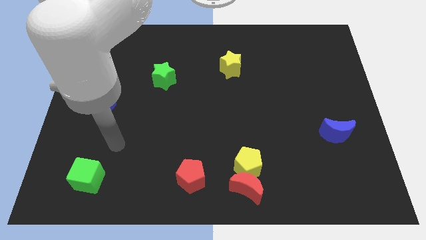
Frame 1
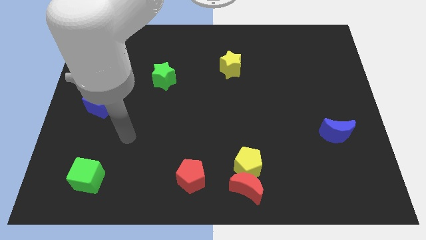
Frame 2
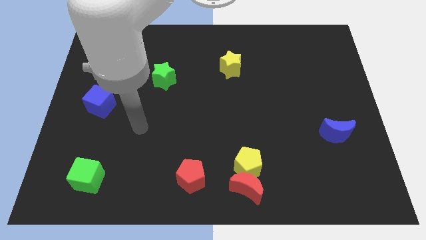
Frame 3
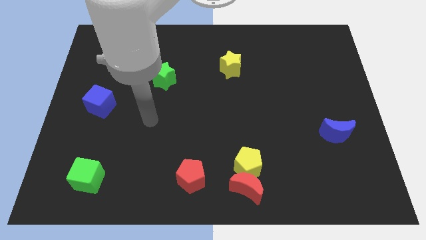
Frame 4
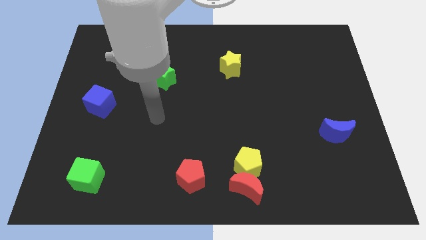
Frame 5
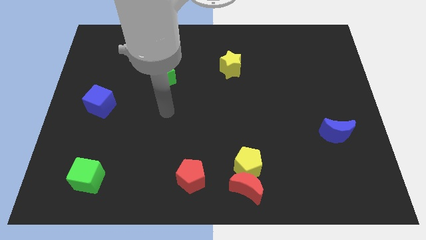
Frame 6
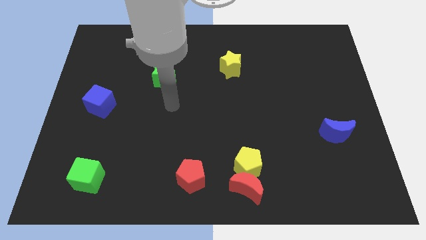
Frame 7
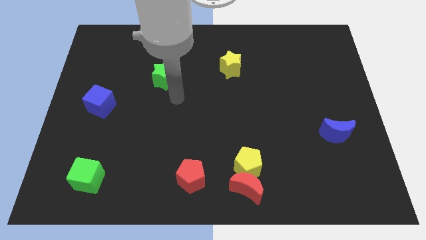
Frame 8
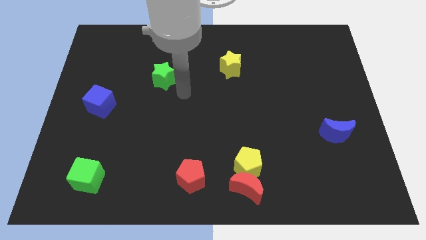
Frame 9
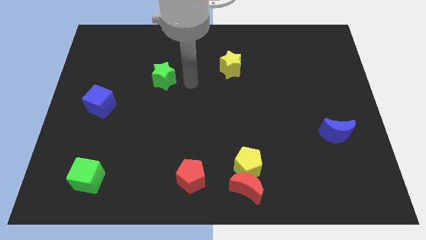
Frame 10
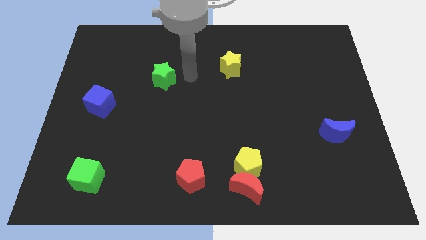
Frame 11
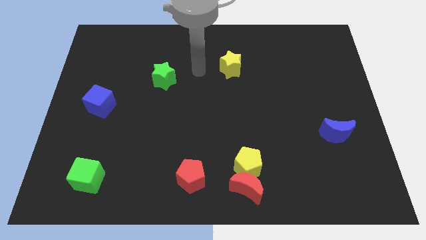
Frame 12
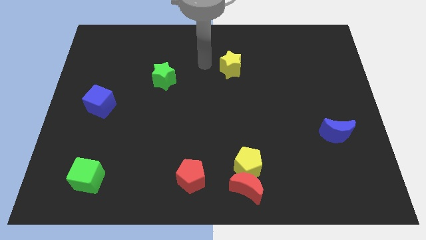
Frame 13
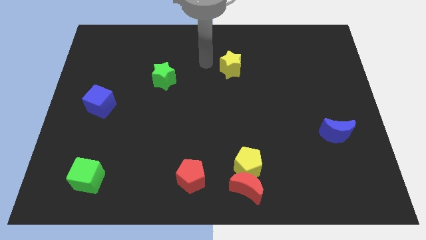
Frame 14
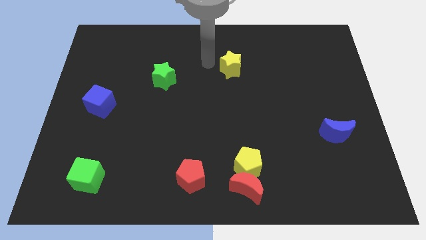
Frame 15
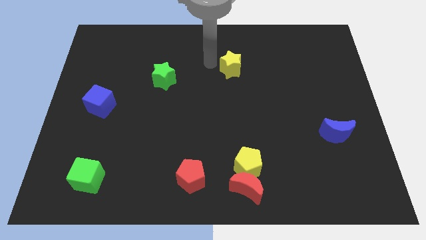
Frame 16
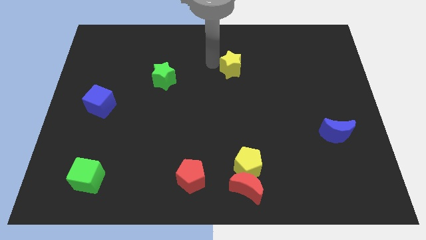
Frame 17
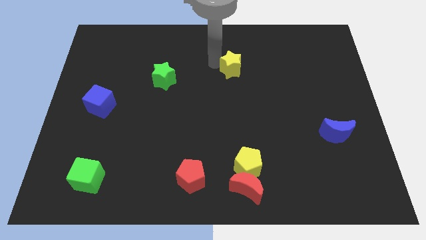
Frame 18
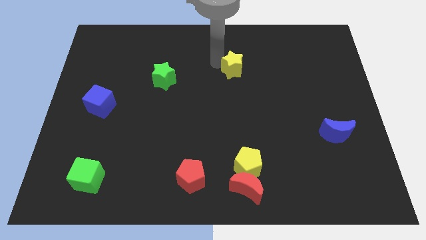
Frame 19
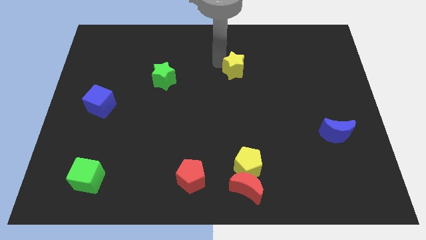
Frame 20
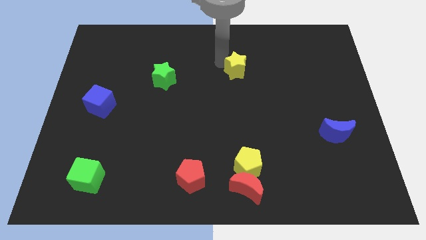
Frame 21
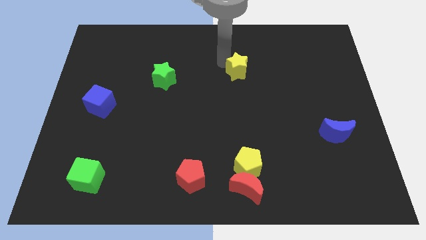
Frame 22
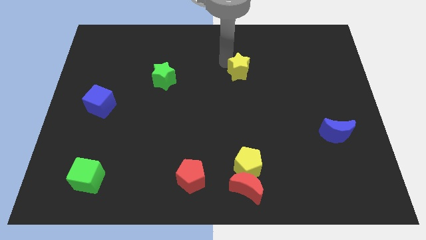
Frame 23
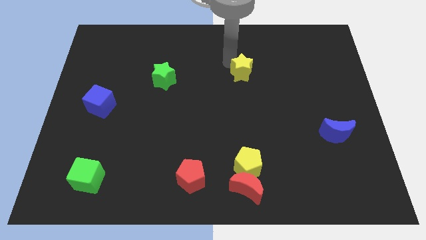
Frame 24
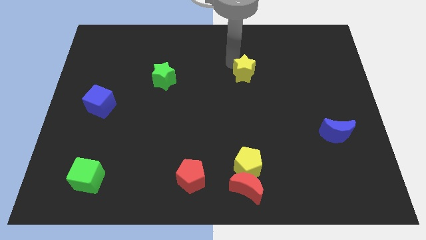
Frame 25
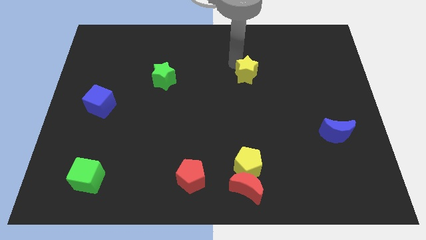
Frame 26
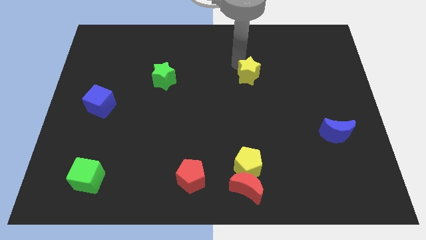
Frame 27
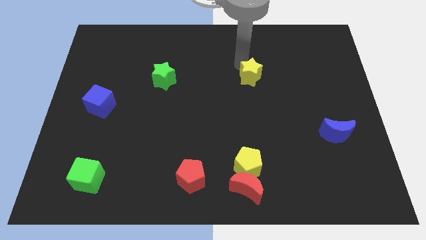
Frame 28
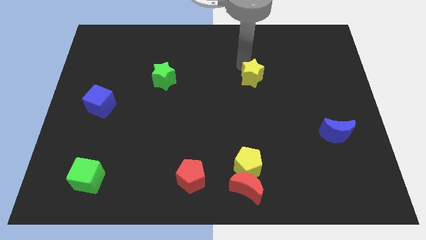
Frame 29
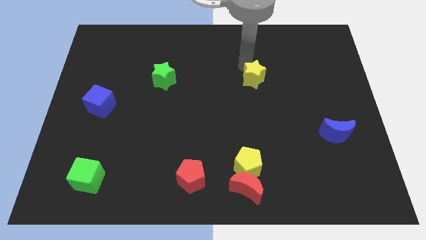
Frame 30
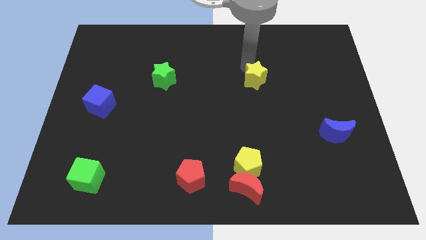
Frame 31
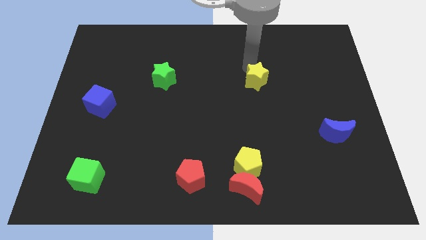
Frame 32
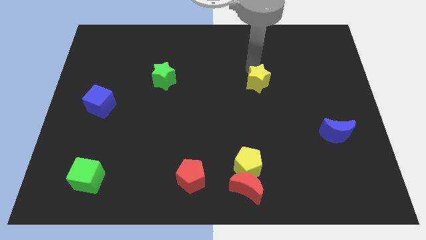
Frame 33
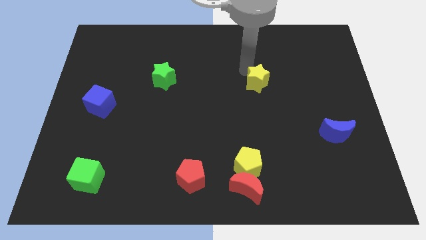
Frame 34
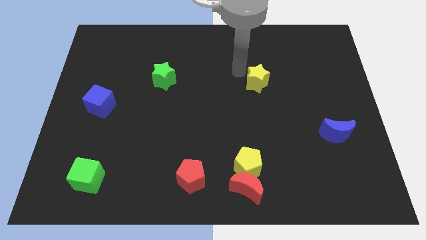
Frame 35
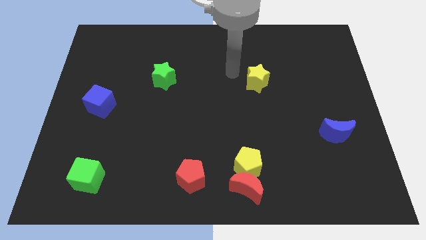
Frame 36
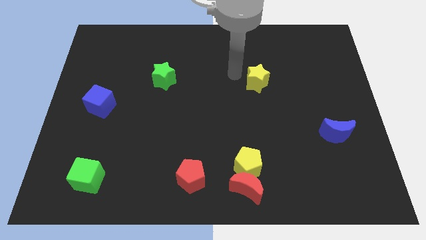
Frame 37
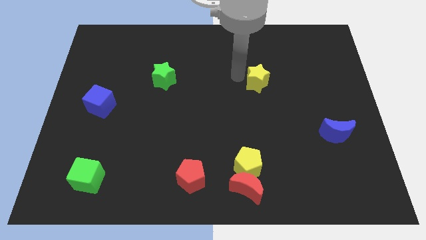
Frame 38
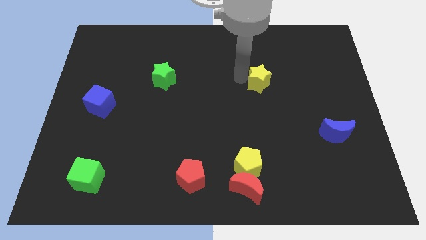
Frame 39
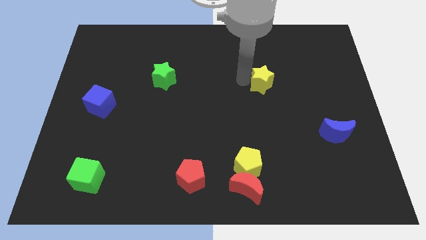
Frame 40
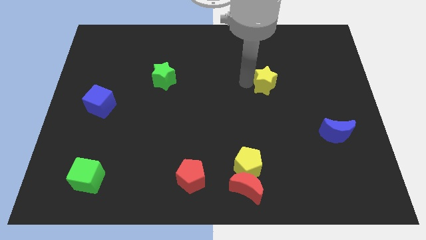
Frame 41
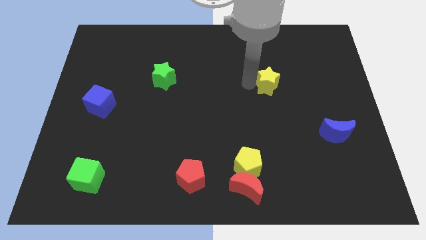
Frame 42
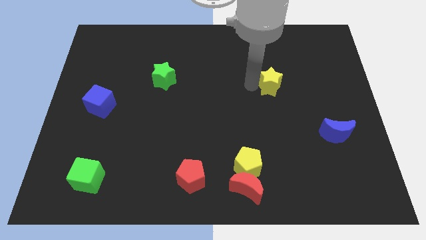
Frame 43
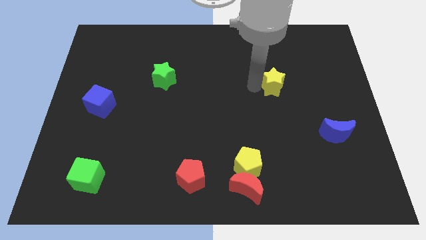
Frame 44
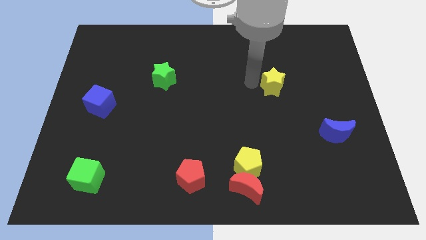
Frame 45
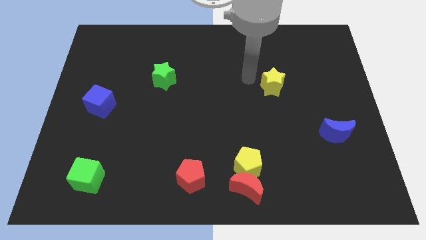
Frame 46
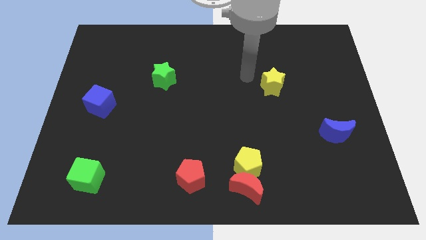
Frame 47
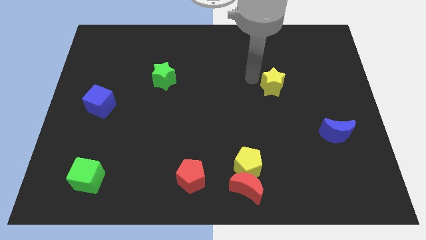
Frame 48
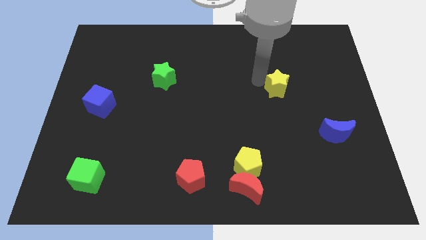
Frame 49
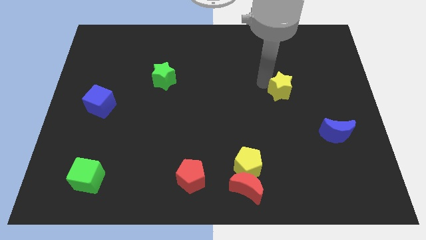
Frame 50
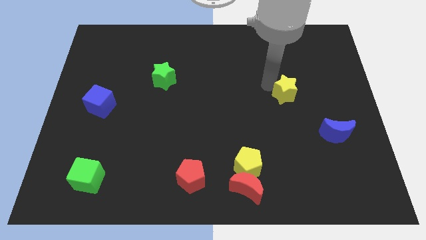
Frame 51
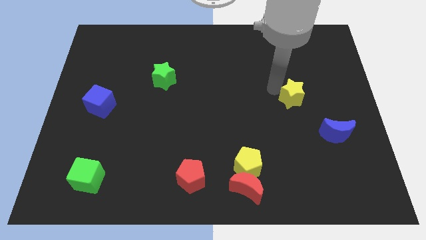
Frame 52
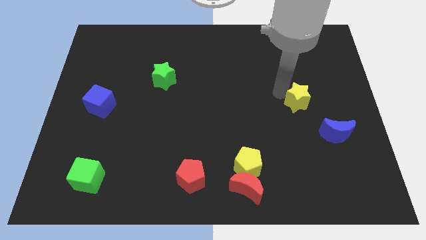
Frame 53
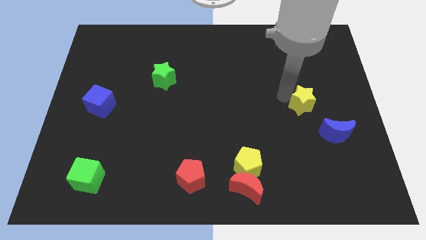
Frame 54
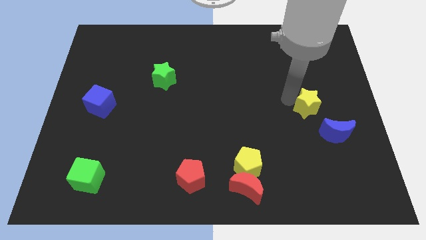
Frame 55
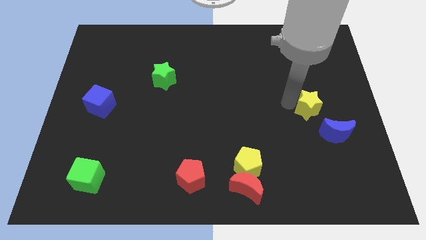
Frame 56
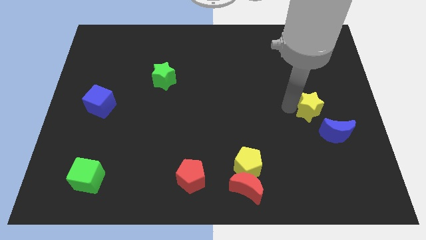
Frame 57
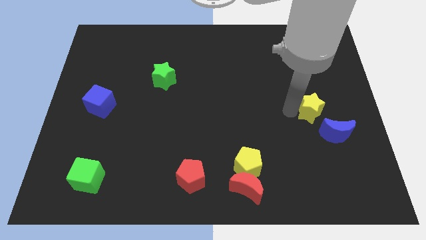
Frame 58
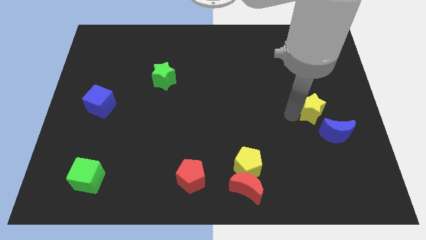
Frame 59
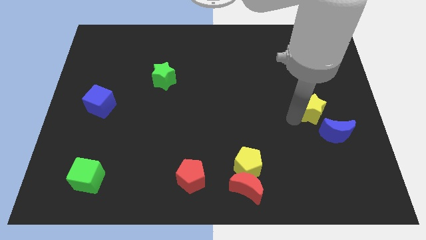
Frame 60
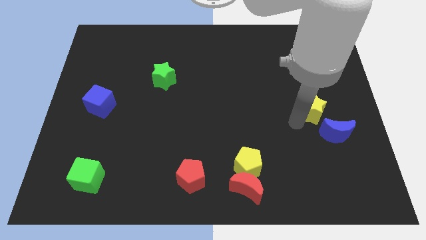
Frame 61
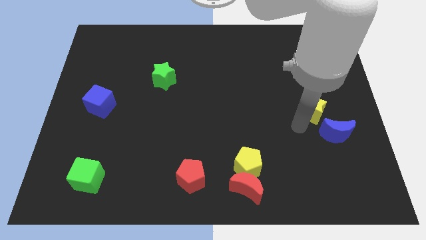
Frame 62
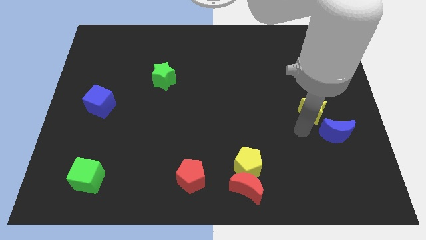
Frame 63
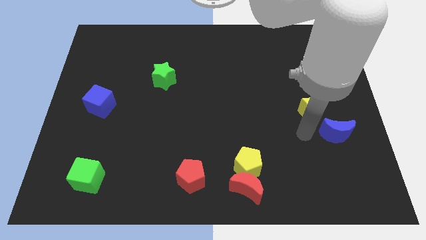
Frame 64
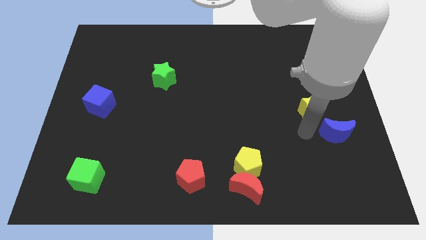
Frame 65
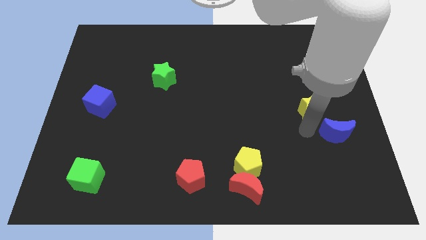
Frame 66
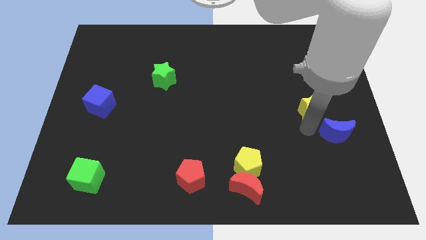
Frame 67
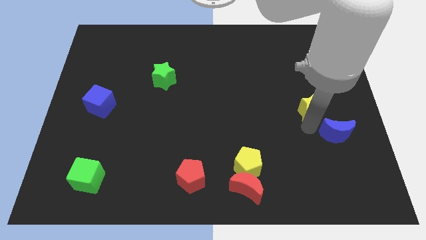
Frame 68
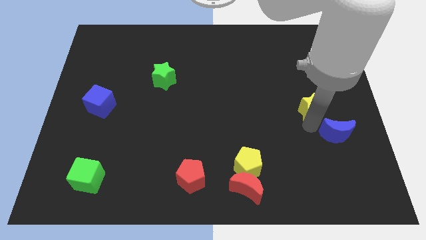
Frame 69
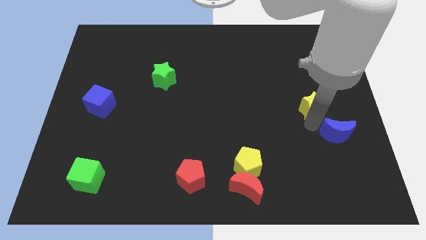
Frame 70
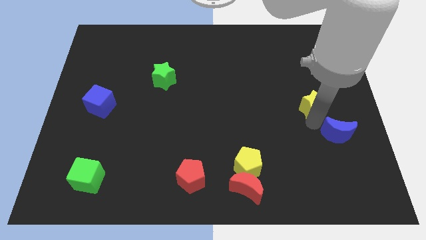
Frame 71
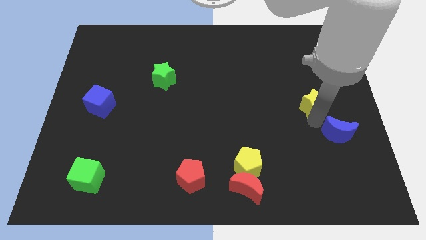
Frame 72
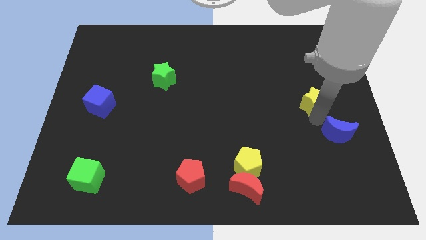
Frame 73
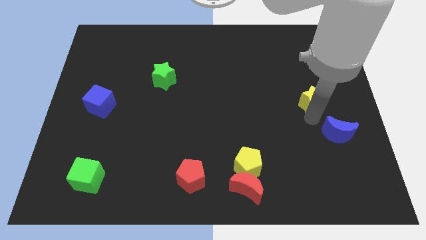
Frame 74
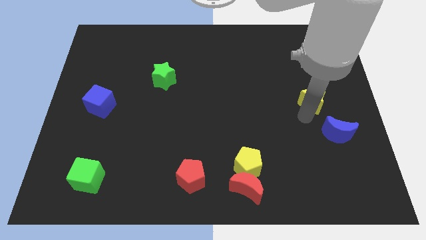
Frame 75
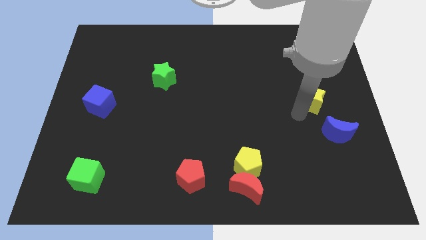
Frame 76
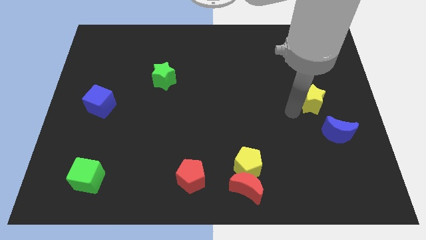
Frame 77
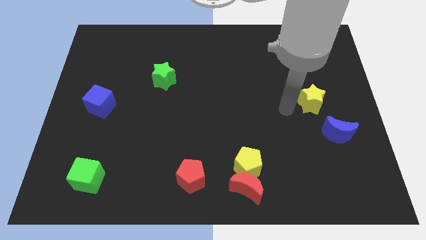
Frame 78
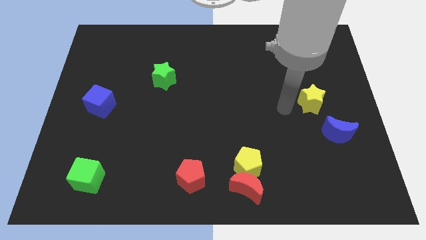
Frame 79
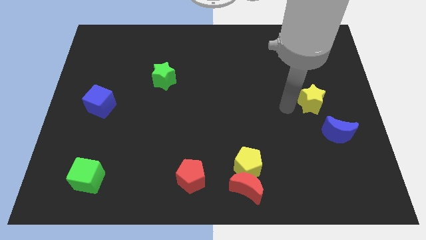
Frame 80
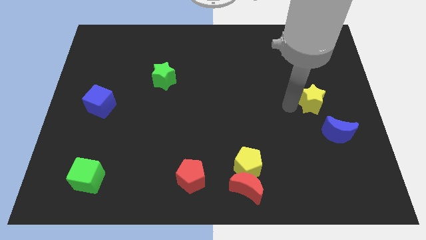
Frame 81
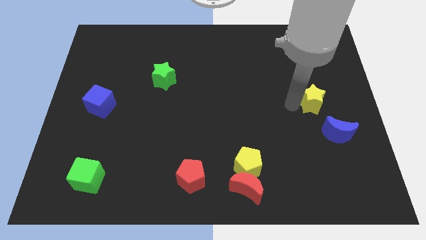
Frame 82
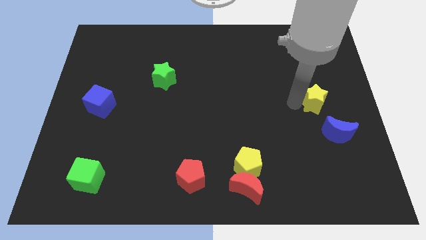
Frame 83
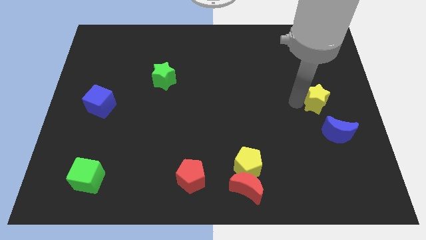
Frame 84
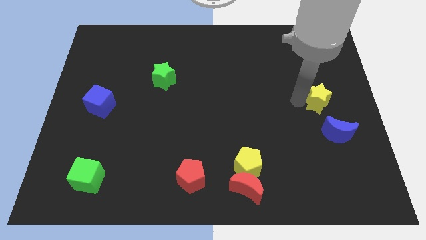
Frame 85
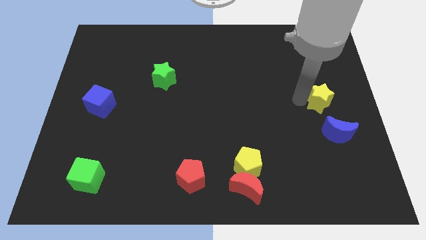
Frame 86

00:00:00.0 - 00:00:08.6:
put the yellow star to the right side of the board
